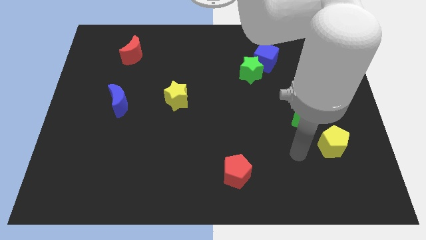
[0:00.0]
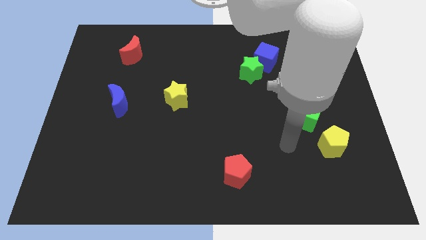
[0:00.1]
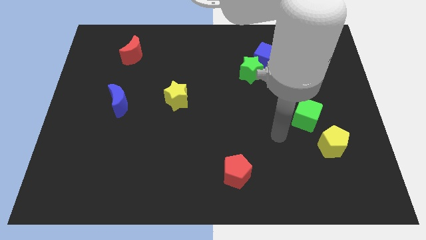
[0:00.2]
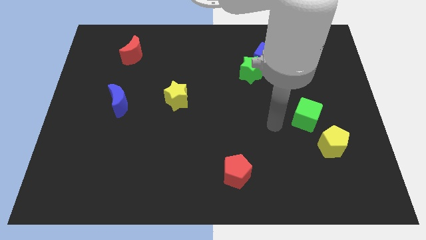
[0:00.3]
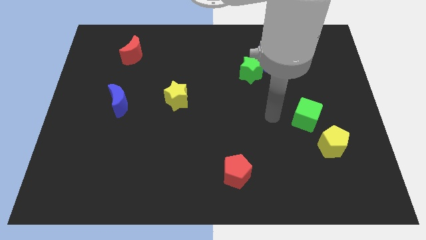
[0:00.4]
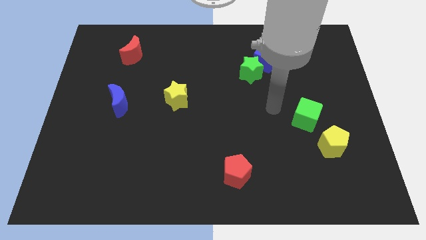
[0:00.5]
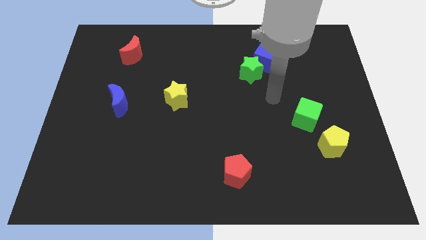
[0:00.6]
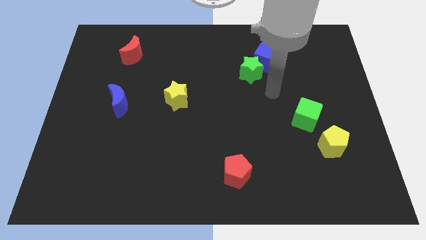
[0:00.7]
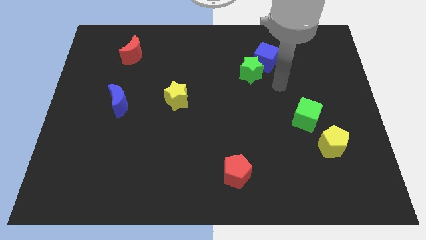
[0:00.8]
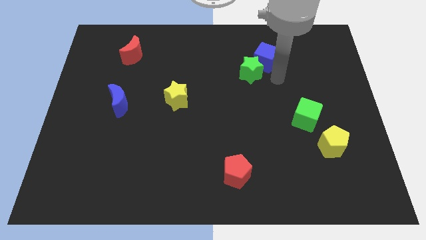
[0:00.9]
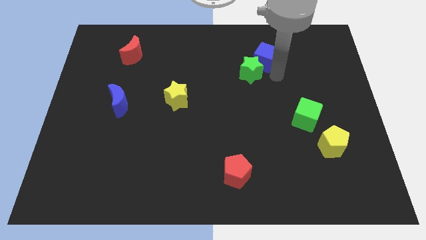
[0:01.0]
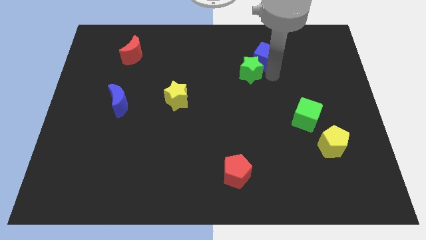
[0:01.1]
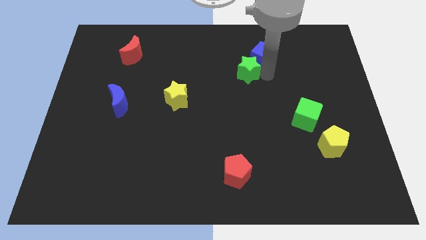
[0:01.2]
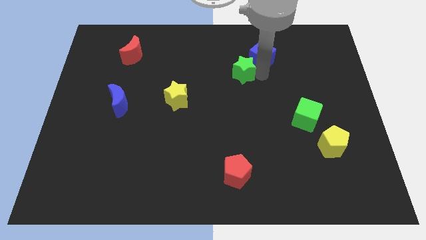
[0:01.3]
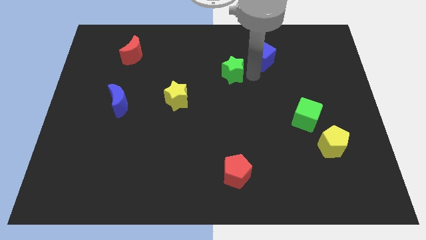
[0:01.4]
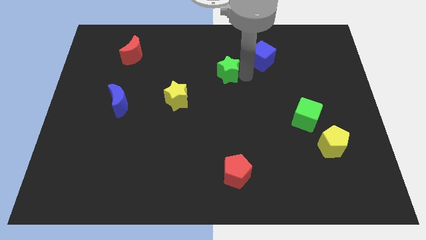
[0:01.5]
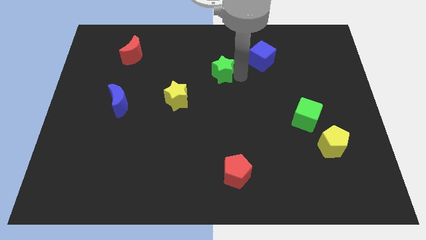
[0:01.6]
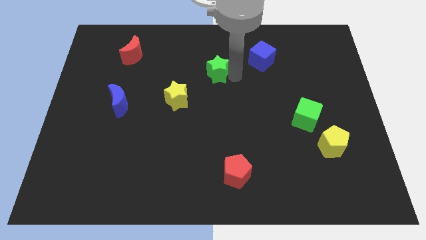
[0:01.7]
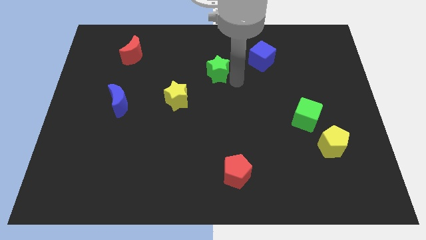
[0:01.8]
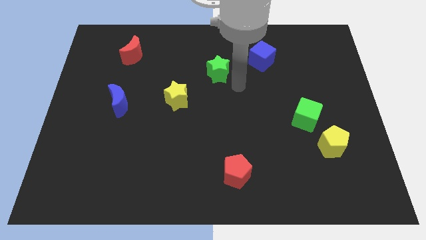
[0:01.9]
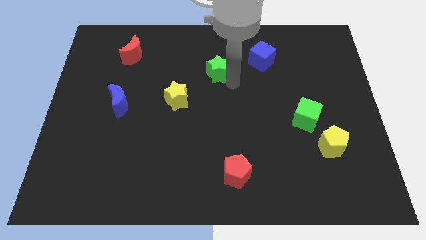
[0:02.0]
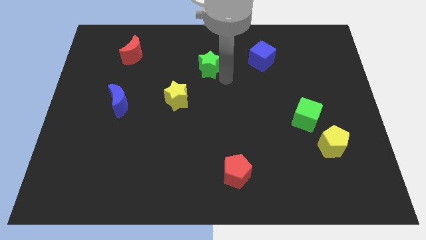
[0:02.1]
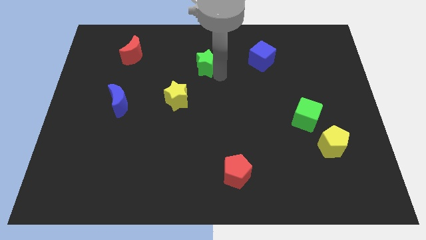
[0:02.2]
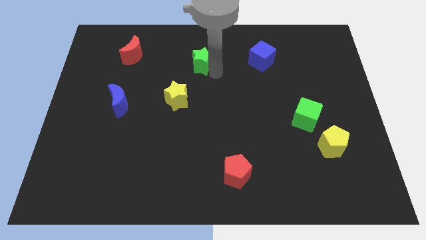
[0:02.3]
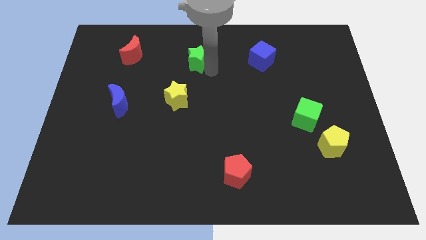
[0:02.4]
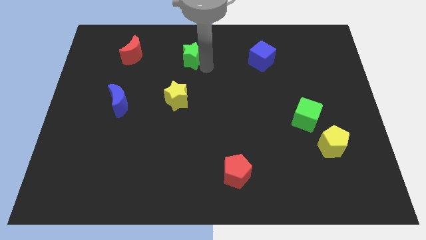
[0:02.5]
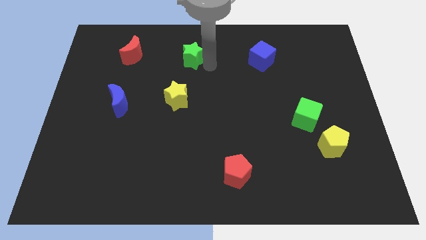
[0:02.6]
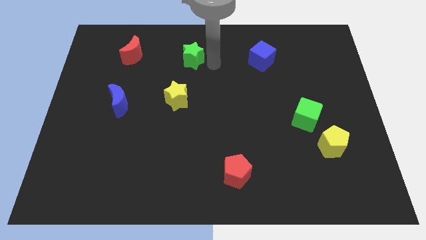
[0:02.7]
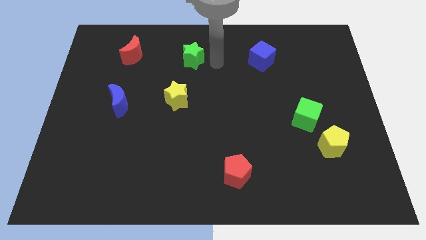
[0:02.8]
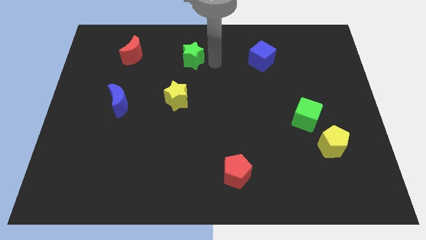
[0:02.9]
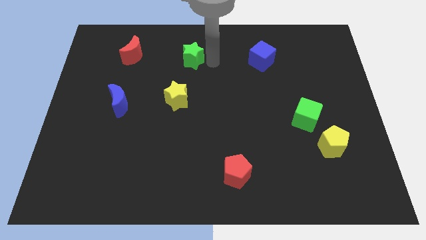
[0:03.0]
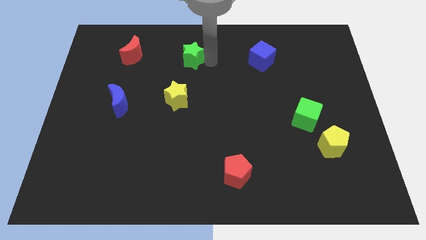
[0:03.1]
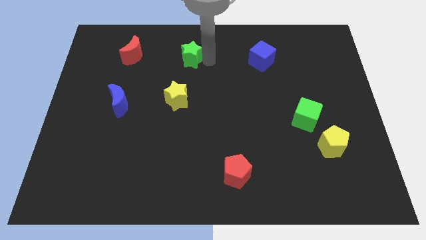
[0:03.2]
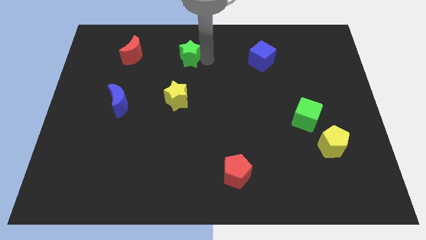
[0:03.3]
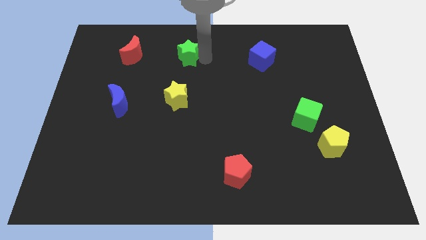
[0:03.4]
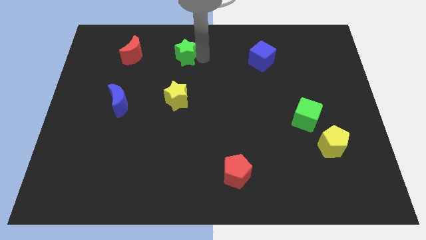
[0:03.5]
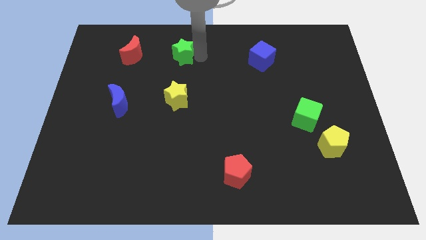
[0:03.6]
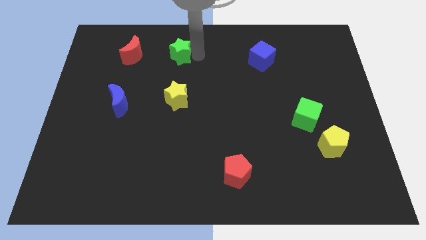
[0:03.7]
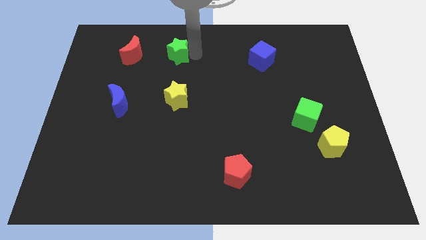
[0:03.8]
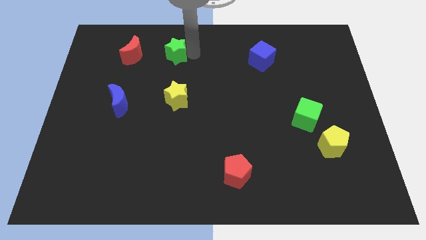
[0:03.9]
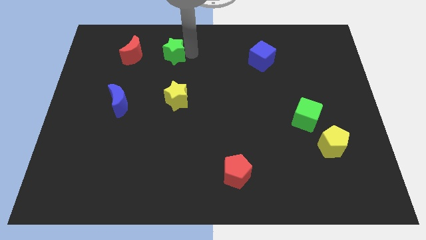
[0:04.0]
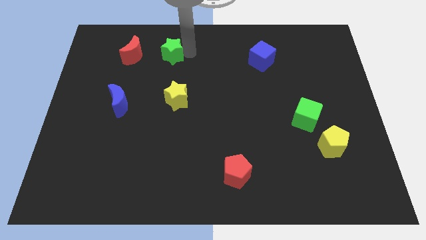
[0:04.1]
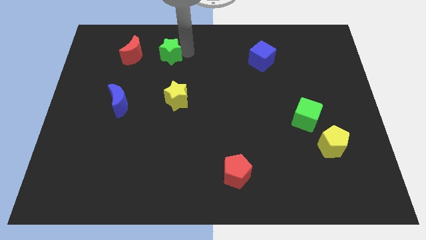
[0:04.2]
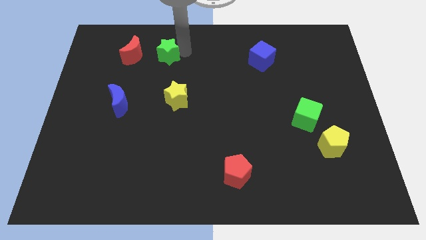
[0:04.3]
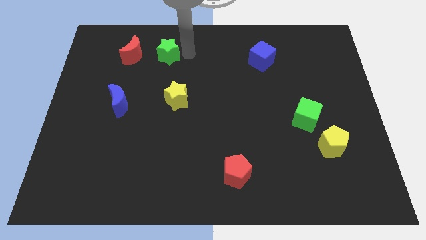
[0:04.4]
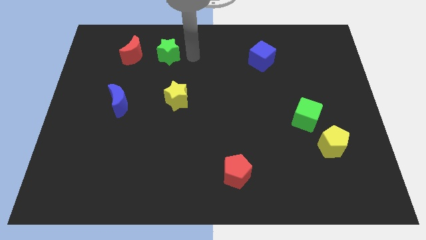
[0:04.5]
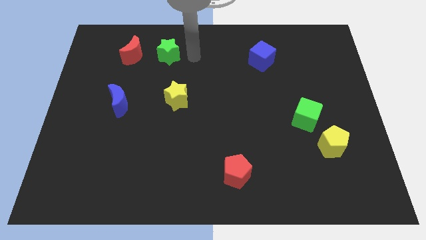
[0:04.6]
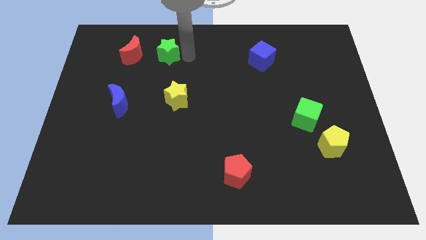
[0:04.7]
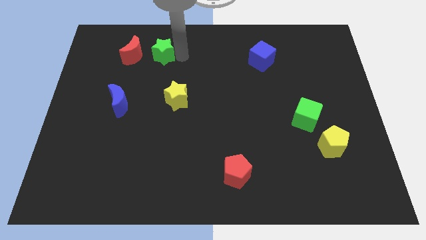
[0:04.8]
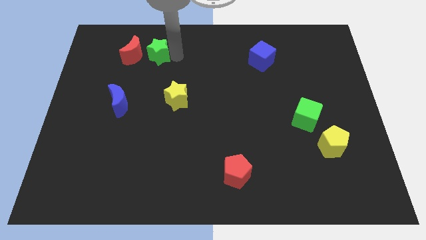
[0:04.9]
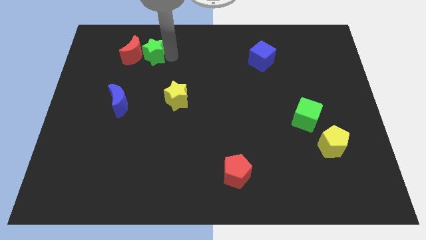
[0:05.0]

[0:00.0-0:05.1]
slide the green star towards the red moon

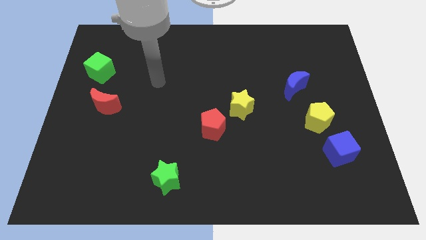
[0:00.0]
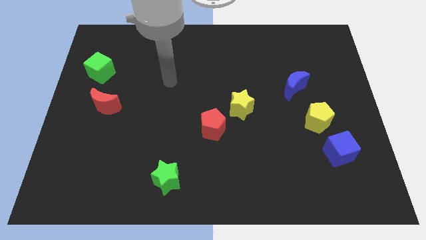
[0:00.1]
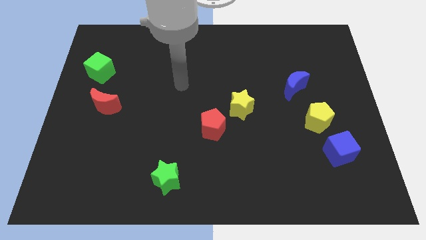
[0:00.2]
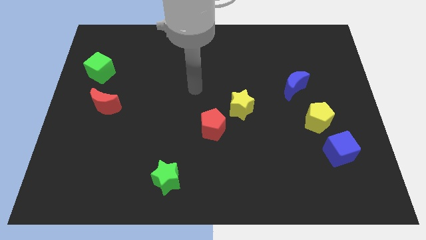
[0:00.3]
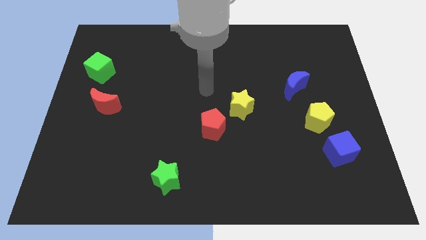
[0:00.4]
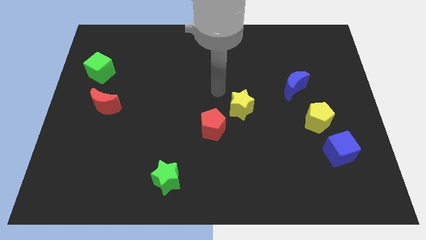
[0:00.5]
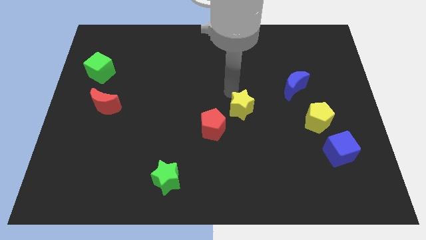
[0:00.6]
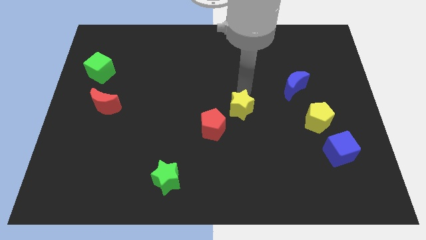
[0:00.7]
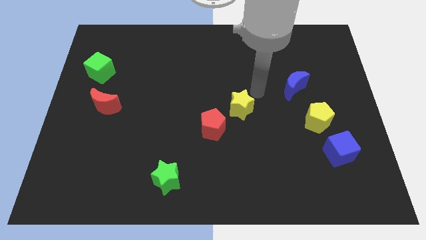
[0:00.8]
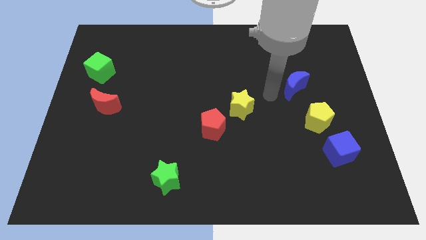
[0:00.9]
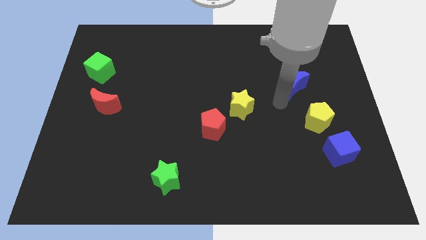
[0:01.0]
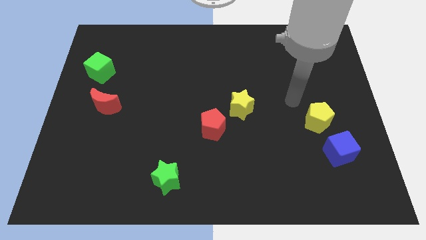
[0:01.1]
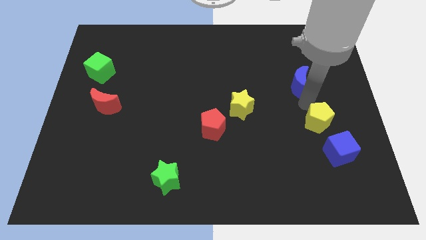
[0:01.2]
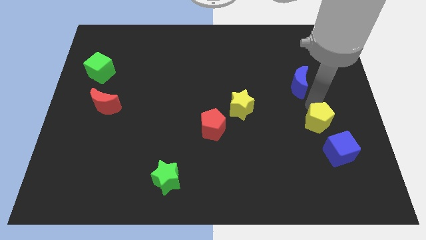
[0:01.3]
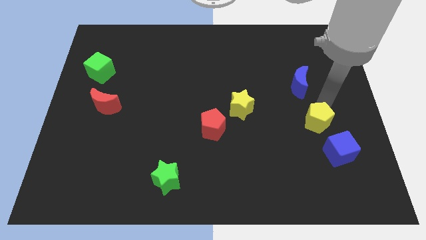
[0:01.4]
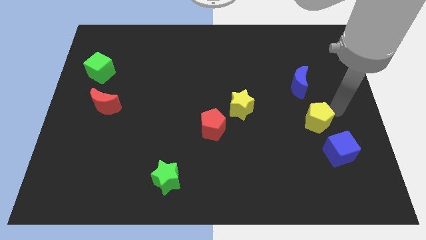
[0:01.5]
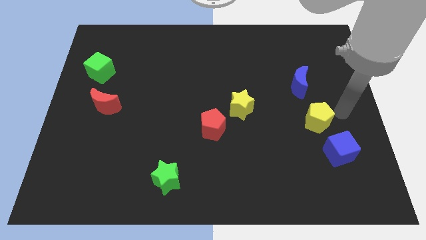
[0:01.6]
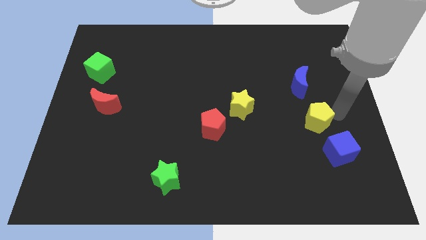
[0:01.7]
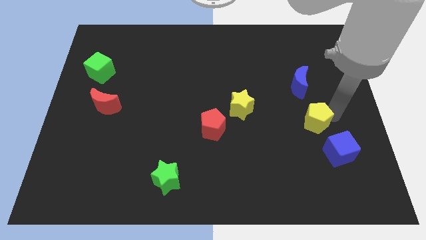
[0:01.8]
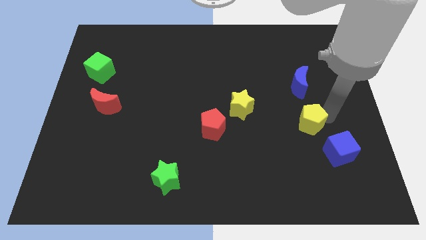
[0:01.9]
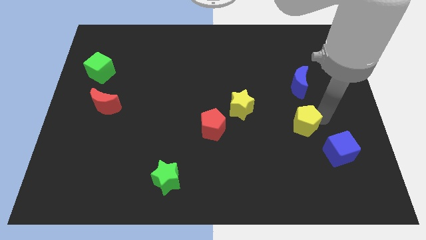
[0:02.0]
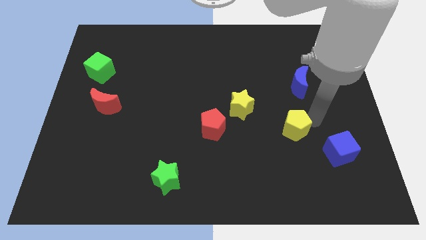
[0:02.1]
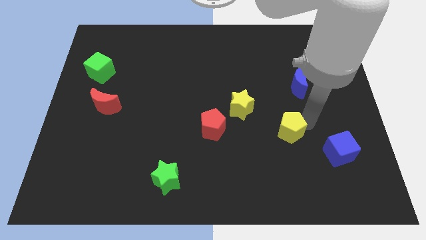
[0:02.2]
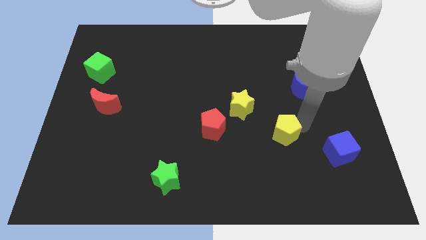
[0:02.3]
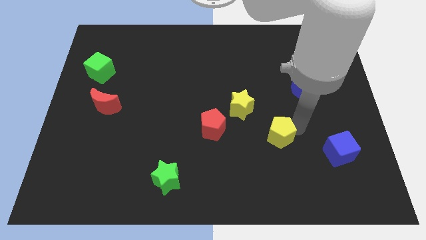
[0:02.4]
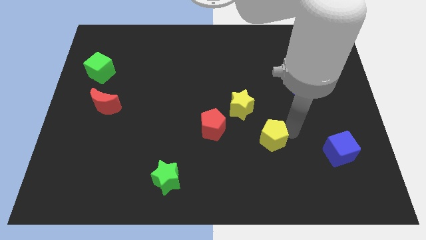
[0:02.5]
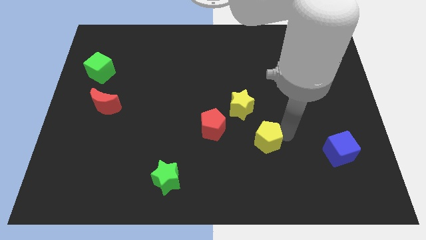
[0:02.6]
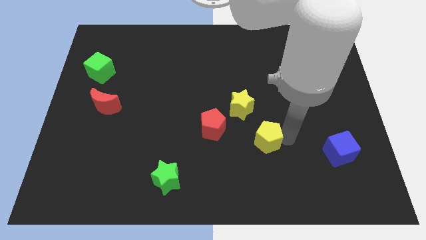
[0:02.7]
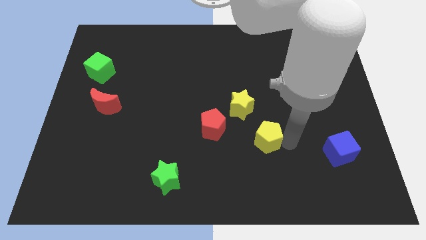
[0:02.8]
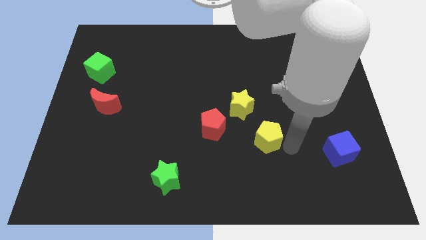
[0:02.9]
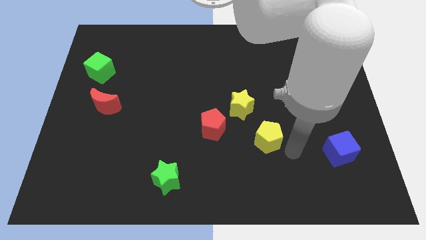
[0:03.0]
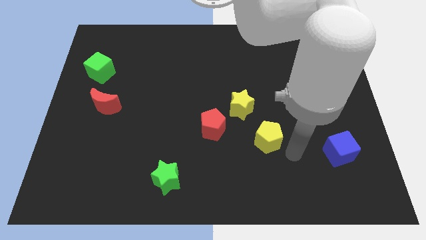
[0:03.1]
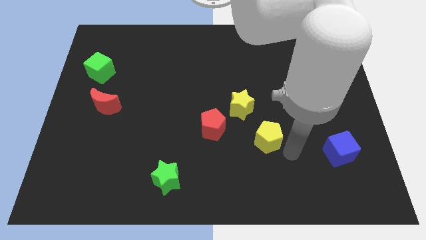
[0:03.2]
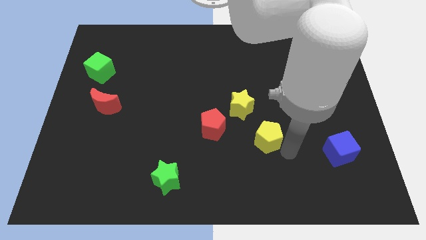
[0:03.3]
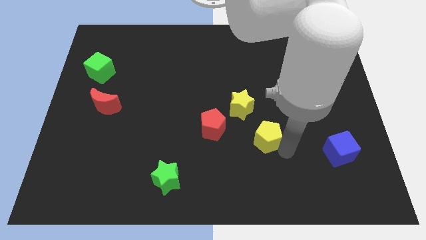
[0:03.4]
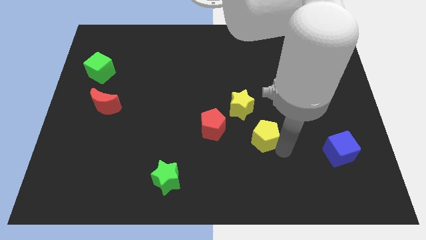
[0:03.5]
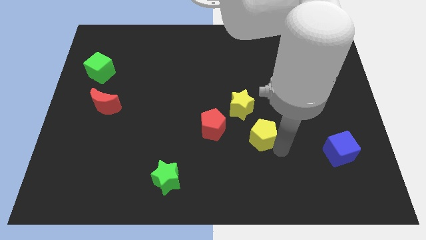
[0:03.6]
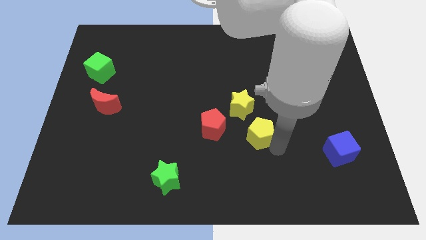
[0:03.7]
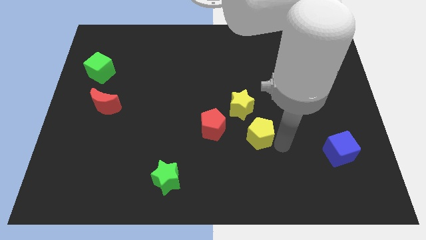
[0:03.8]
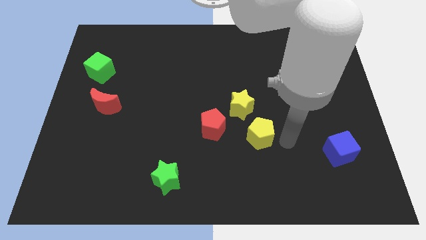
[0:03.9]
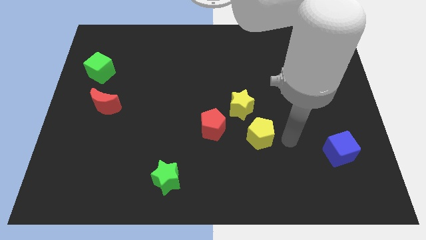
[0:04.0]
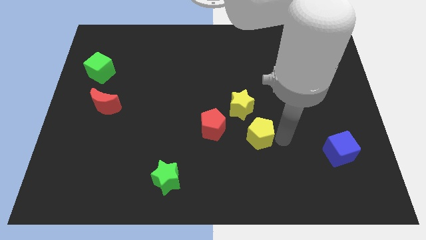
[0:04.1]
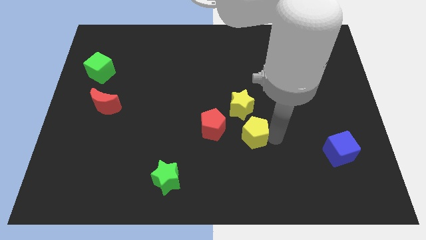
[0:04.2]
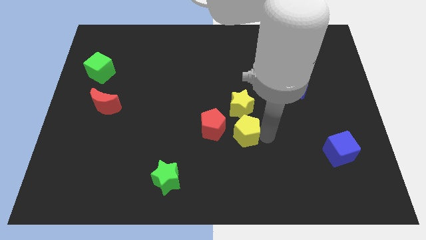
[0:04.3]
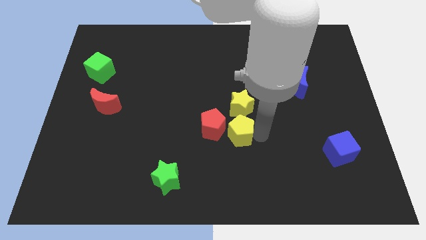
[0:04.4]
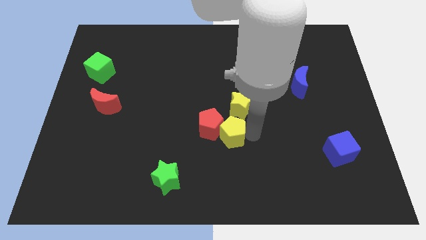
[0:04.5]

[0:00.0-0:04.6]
slide the yellow pentagon next to the red pentagon
